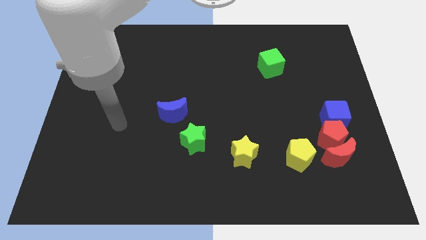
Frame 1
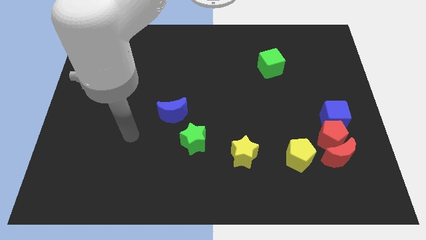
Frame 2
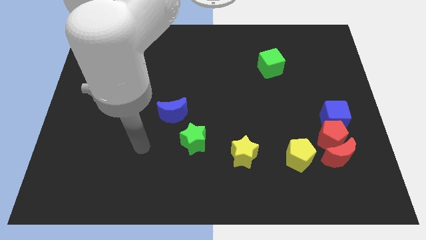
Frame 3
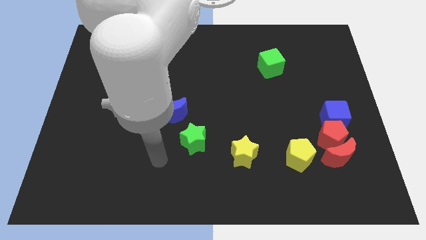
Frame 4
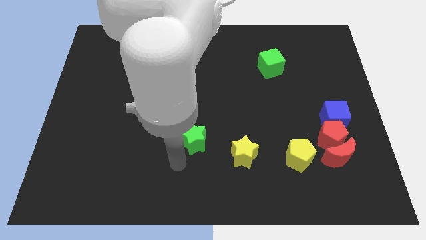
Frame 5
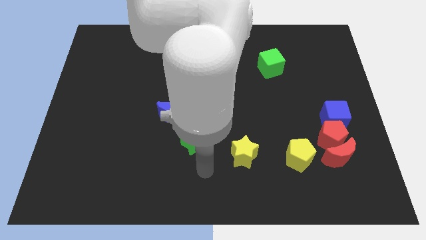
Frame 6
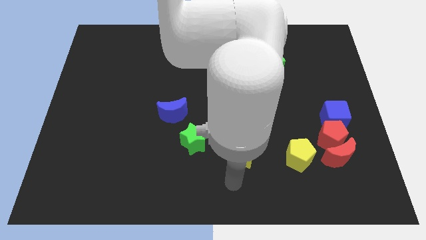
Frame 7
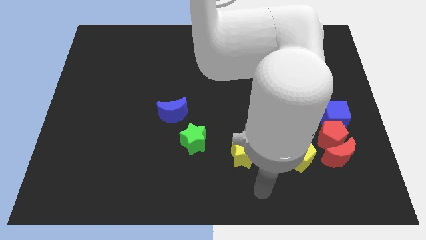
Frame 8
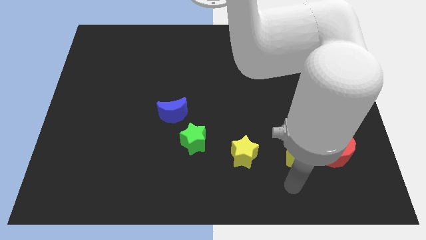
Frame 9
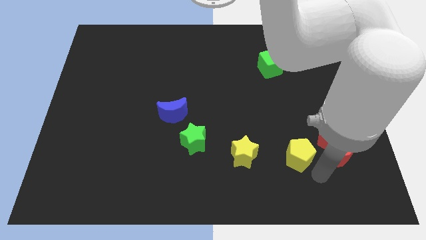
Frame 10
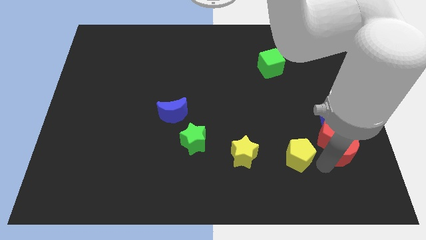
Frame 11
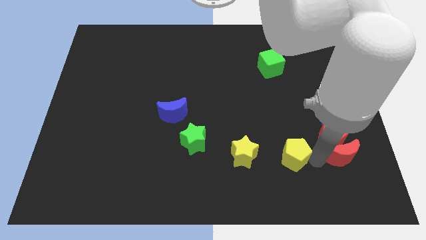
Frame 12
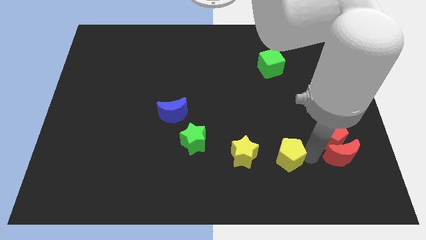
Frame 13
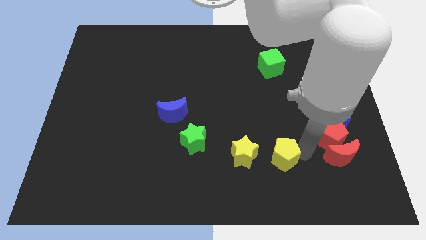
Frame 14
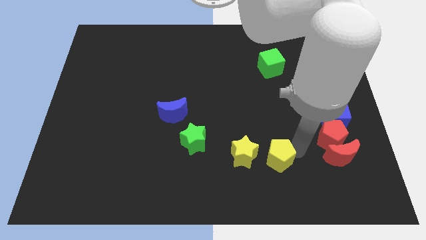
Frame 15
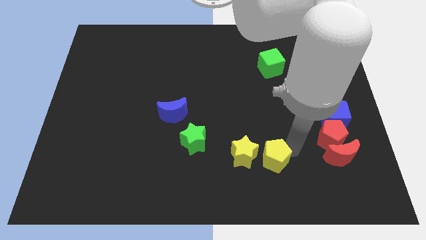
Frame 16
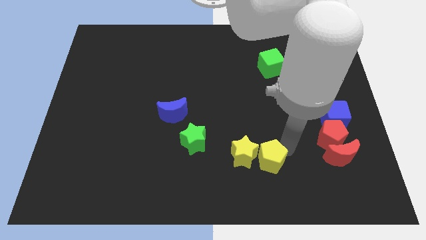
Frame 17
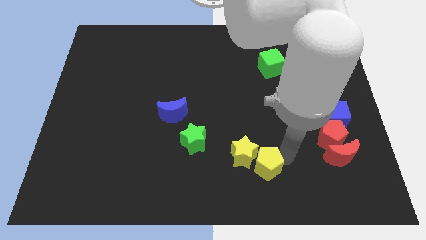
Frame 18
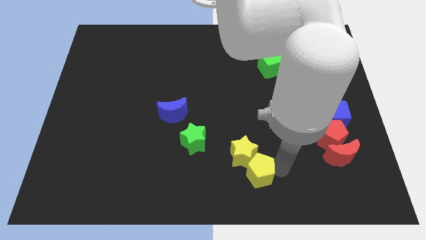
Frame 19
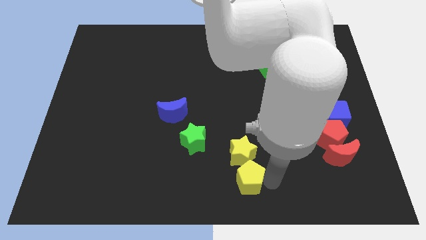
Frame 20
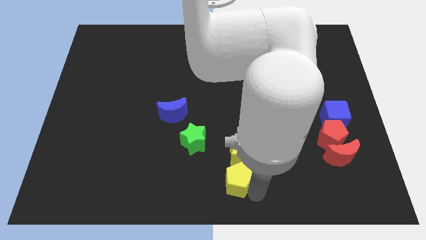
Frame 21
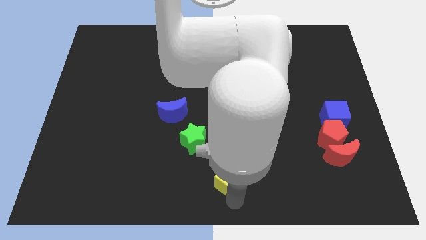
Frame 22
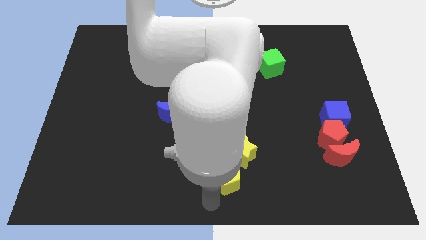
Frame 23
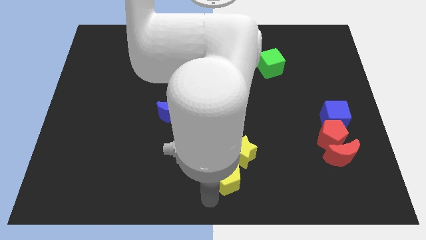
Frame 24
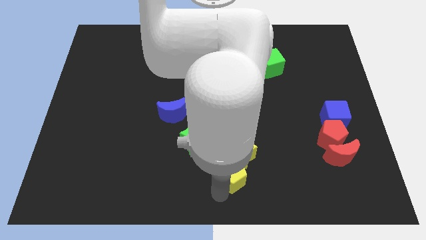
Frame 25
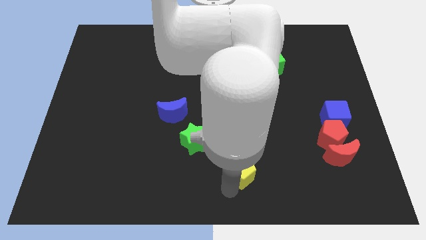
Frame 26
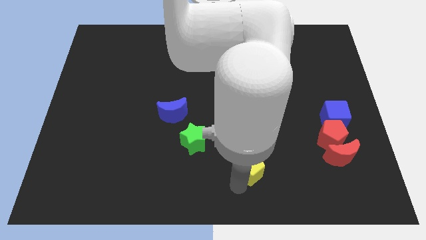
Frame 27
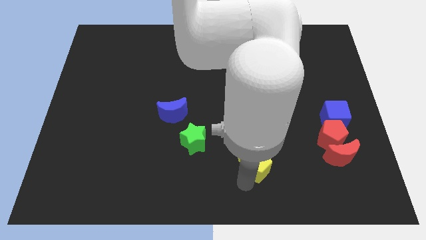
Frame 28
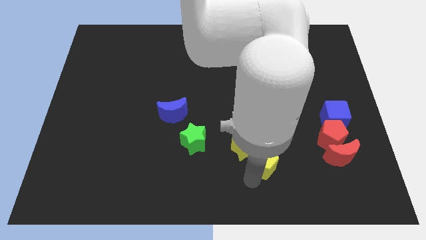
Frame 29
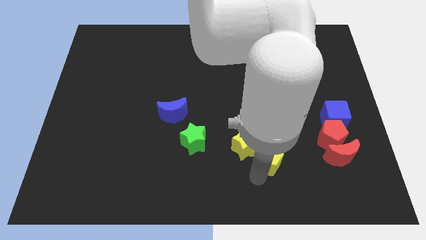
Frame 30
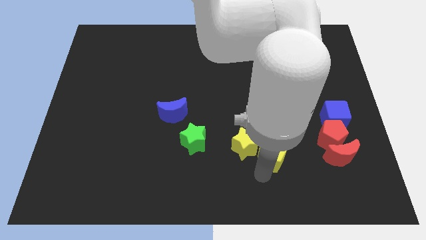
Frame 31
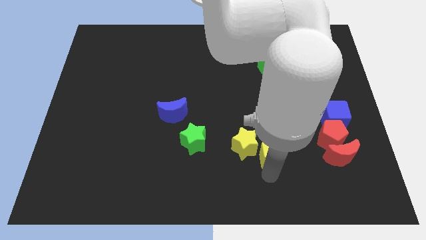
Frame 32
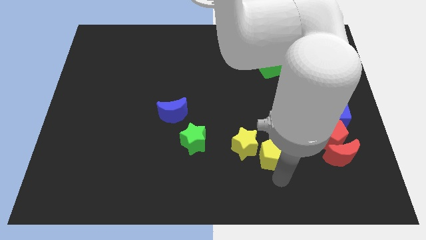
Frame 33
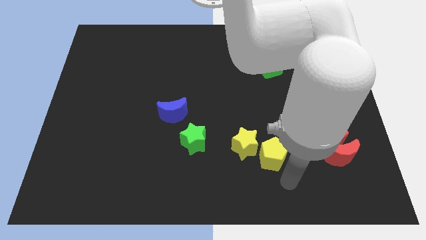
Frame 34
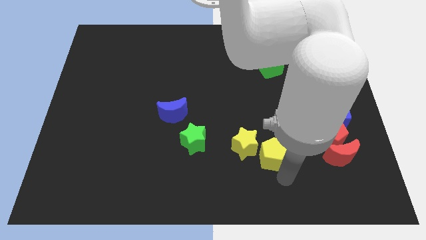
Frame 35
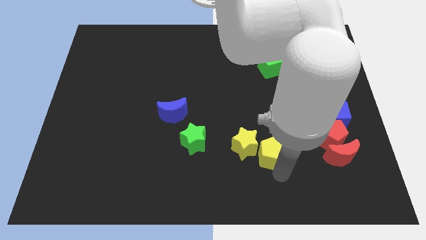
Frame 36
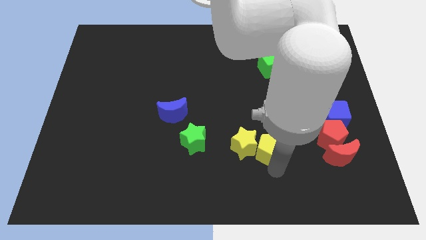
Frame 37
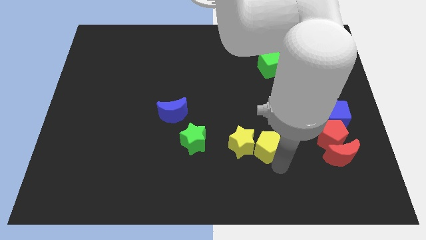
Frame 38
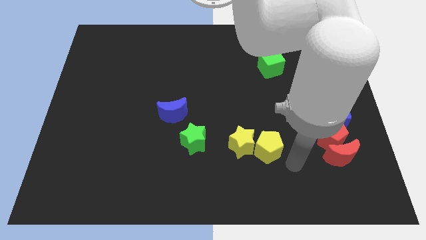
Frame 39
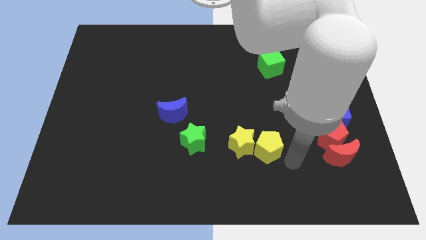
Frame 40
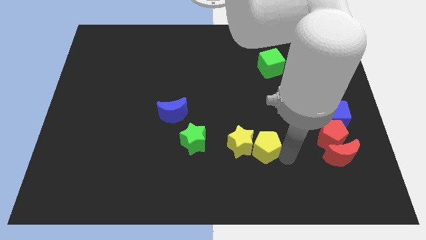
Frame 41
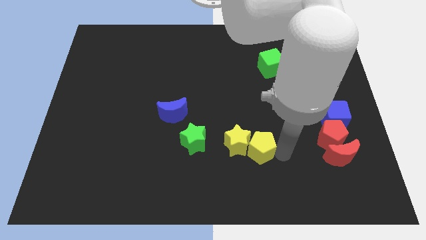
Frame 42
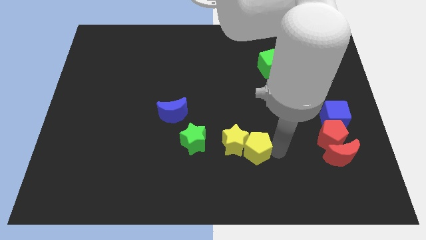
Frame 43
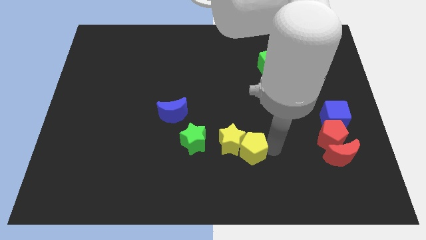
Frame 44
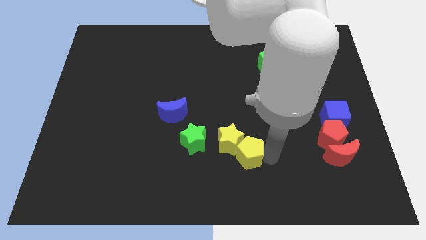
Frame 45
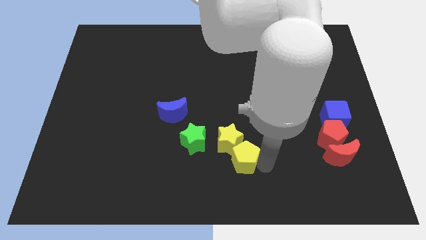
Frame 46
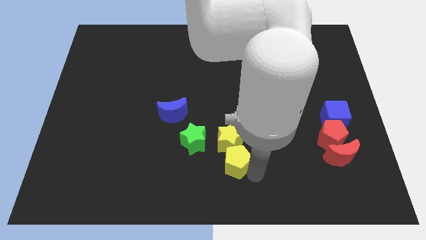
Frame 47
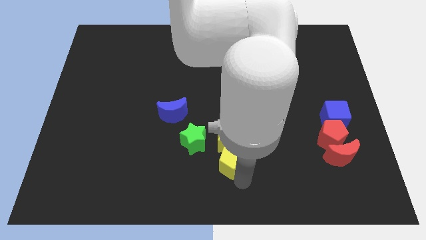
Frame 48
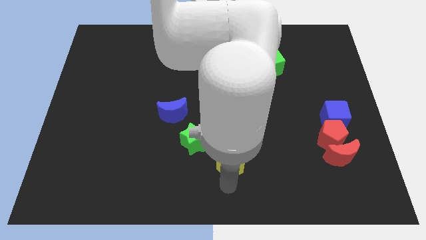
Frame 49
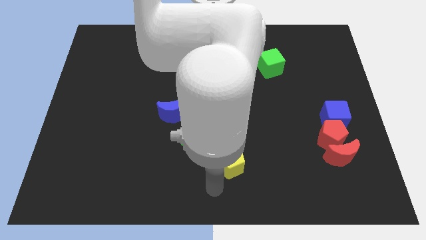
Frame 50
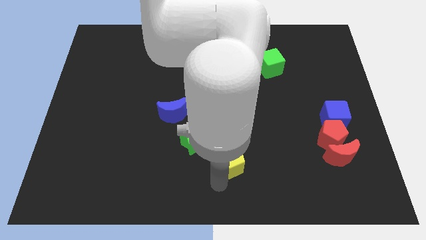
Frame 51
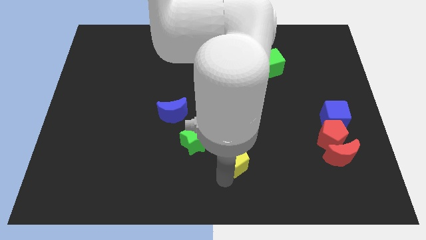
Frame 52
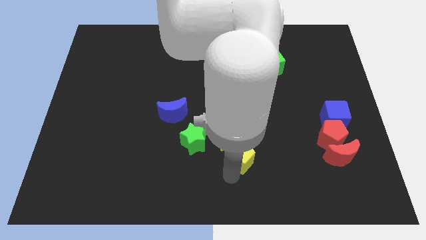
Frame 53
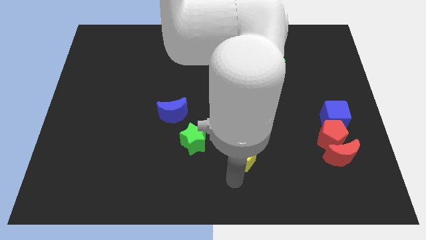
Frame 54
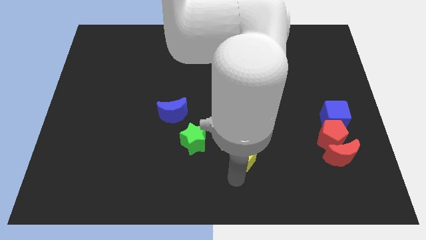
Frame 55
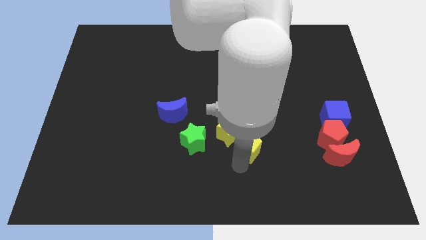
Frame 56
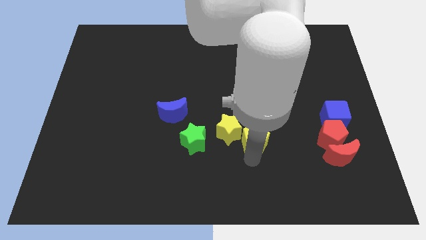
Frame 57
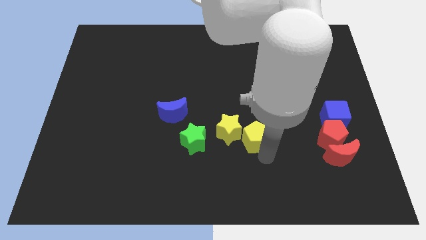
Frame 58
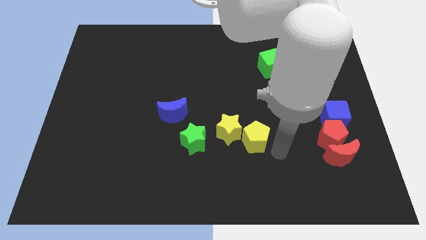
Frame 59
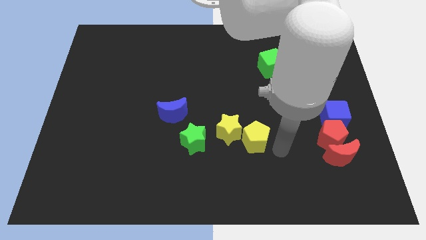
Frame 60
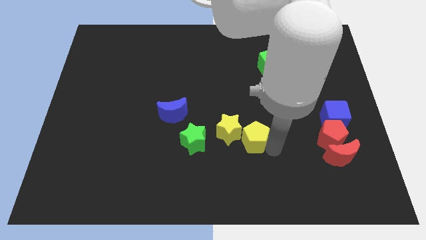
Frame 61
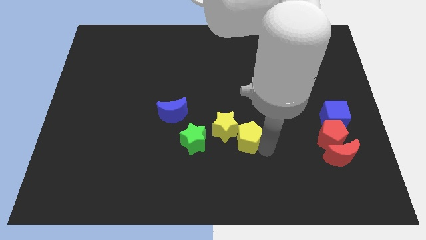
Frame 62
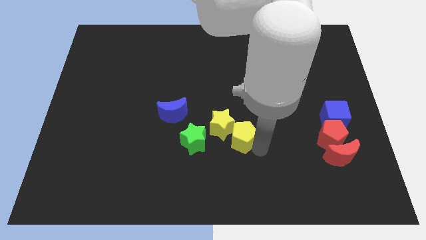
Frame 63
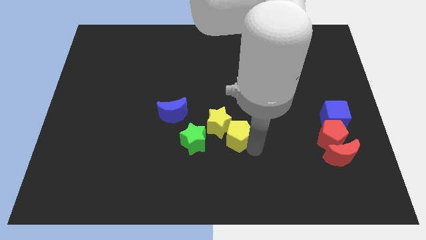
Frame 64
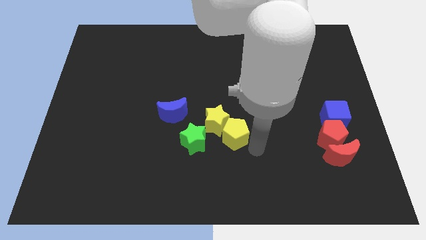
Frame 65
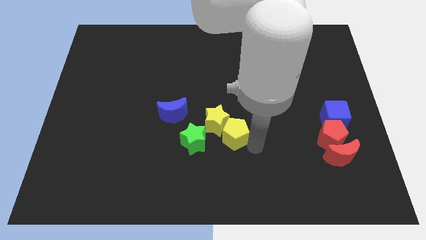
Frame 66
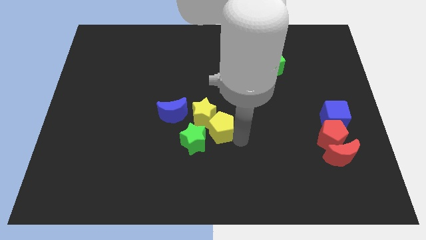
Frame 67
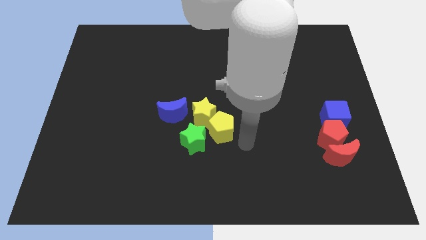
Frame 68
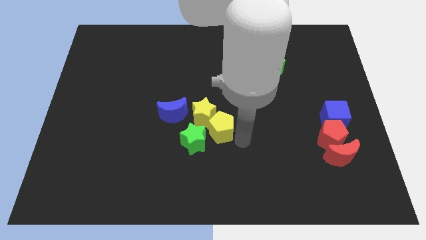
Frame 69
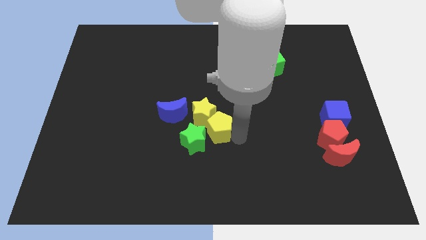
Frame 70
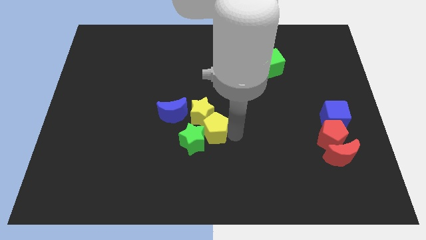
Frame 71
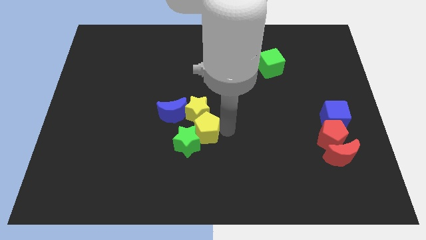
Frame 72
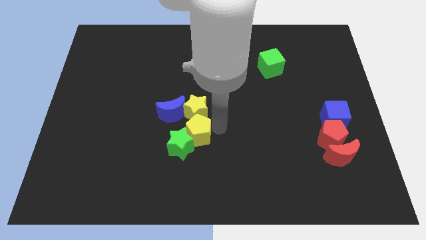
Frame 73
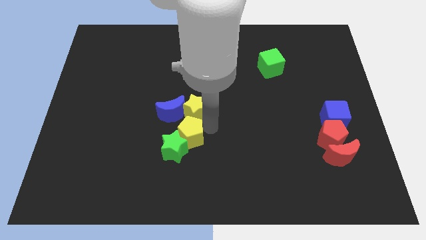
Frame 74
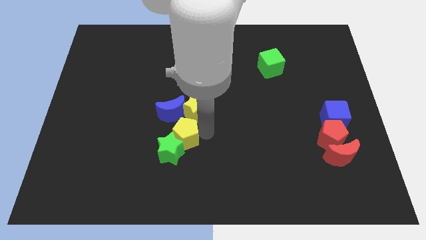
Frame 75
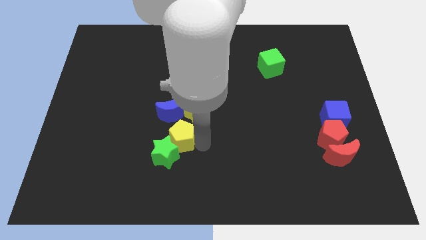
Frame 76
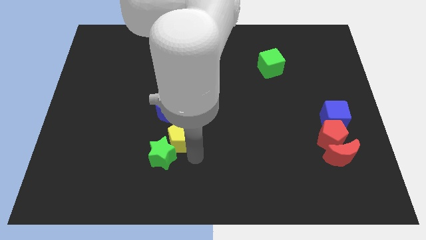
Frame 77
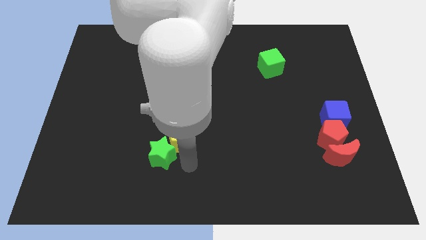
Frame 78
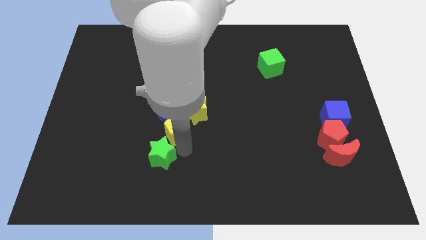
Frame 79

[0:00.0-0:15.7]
put the yellow pentagon close to the blue moon
